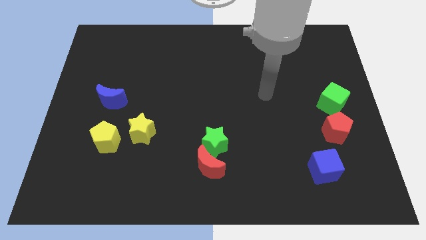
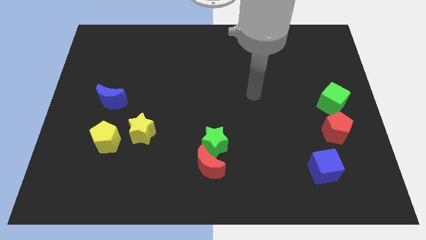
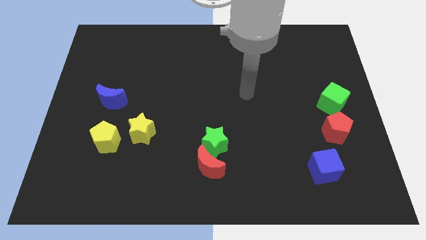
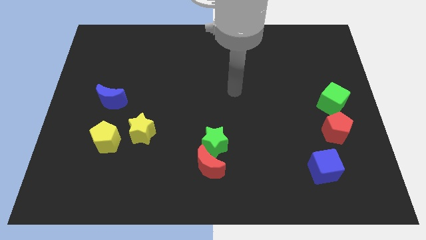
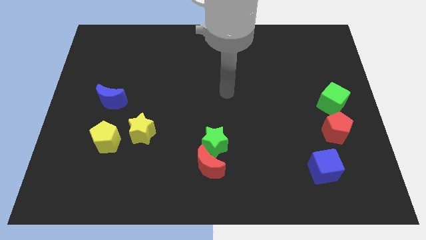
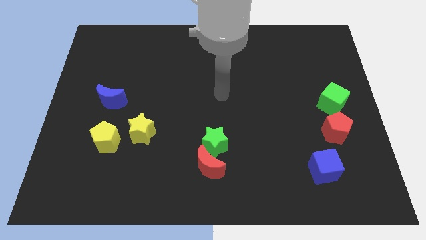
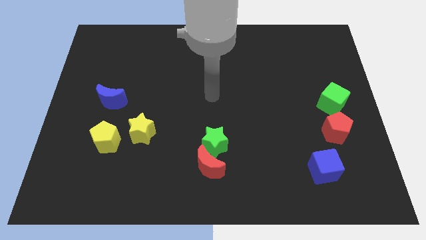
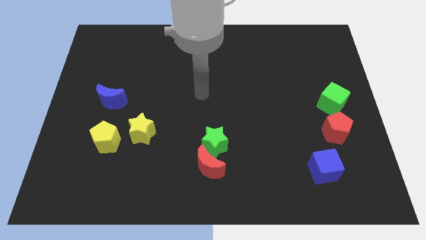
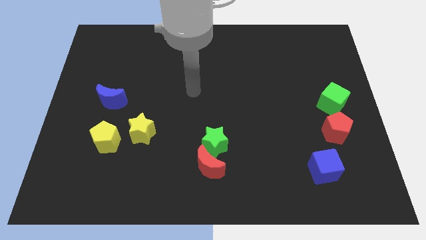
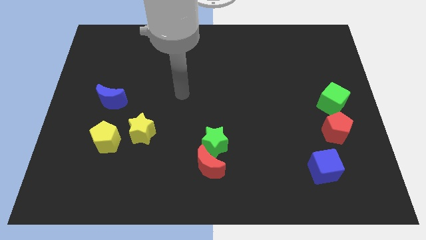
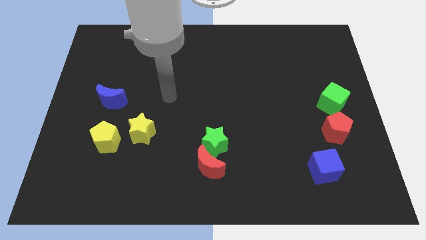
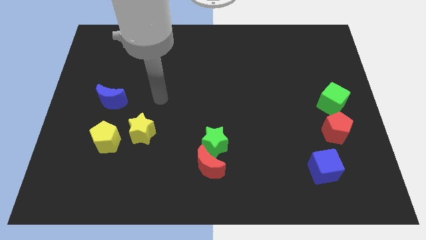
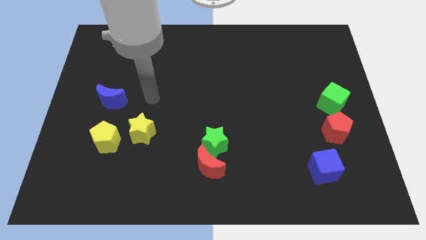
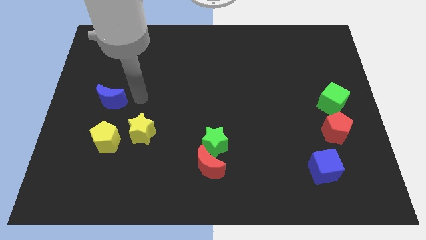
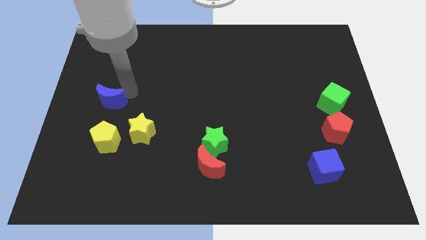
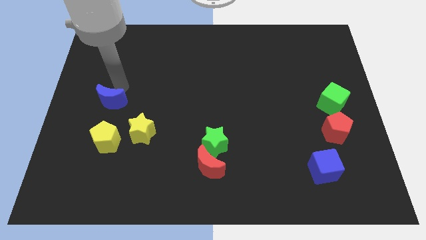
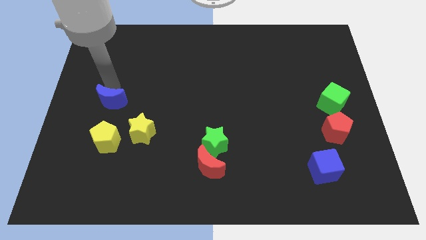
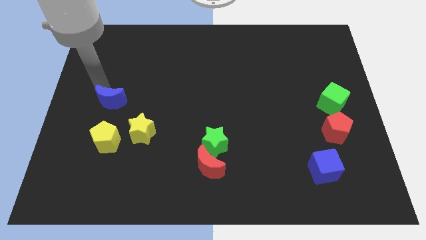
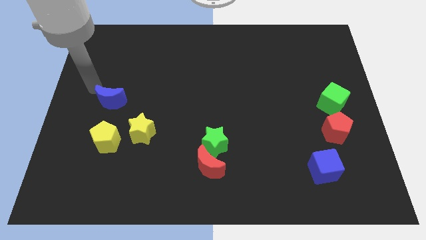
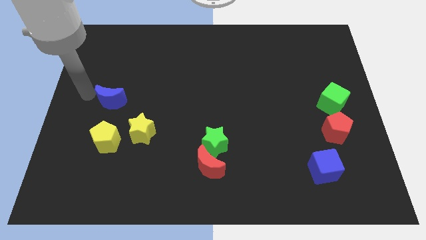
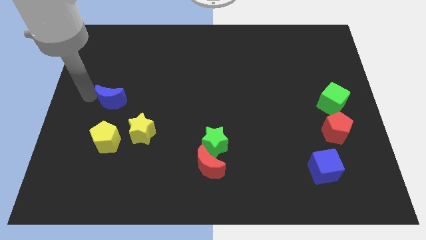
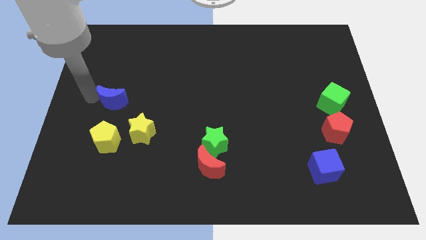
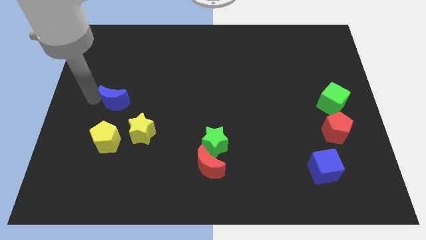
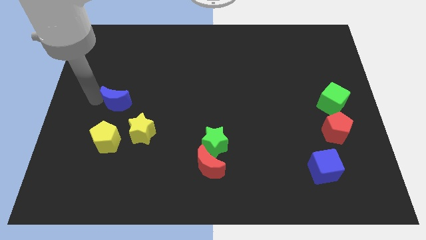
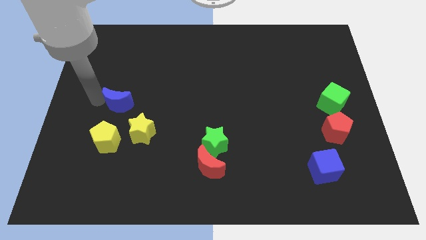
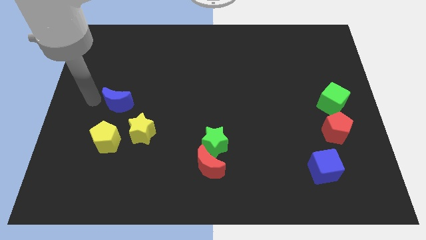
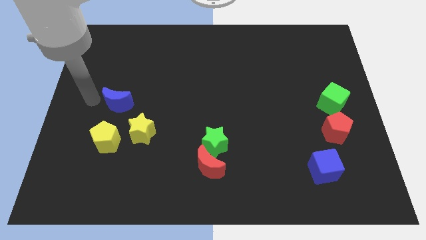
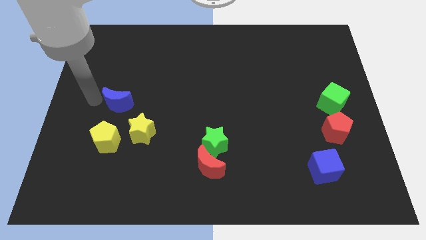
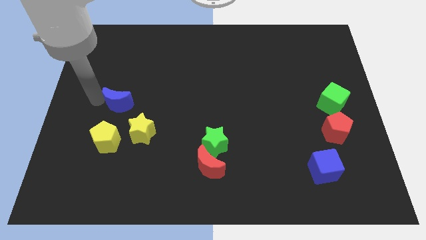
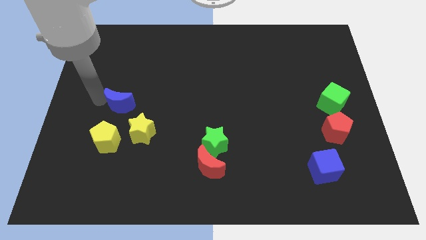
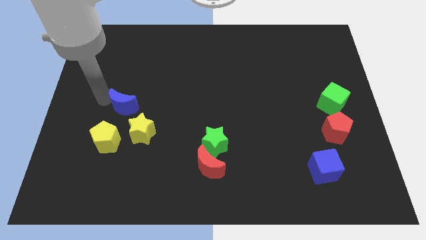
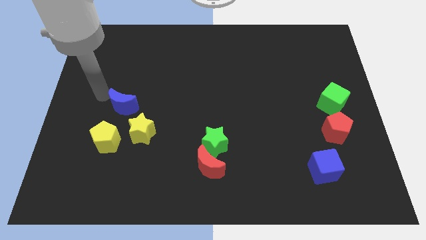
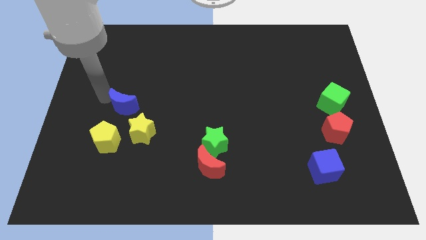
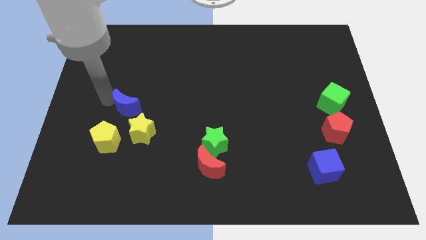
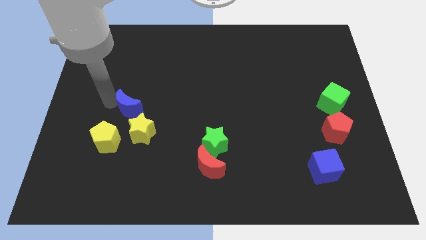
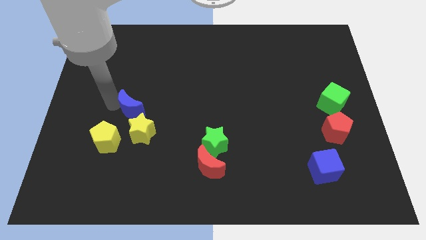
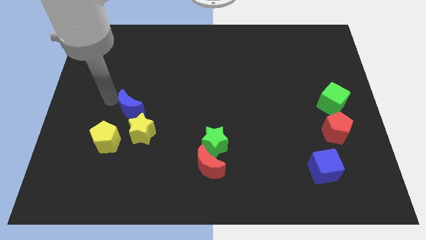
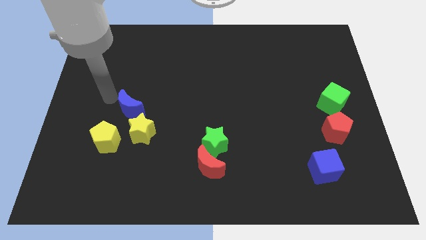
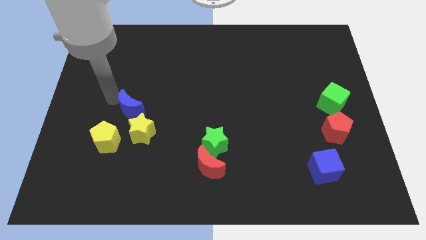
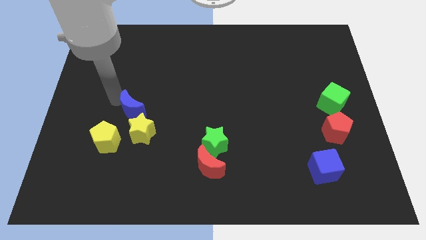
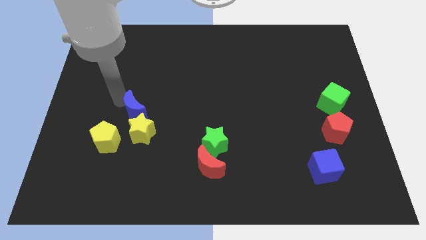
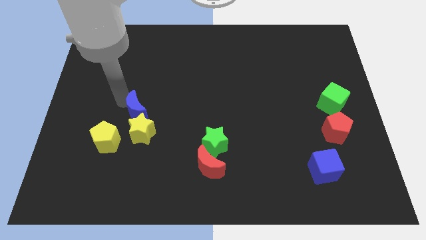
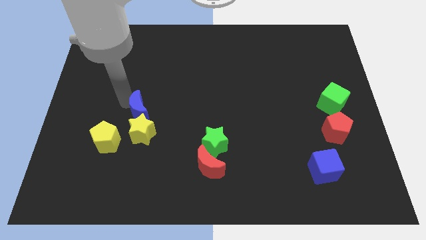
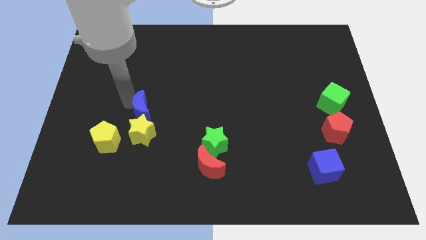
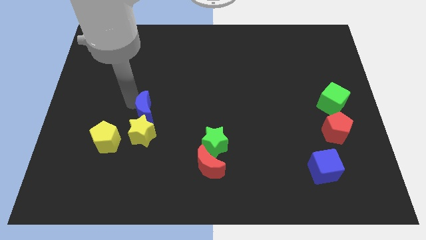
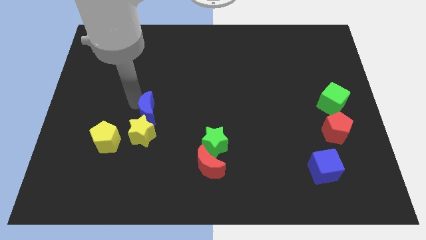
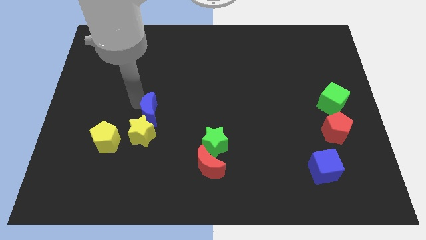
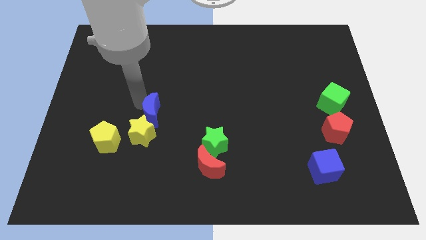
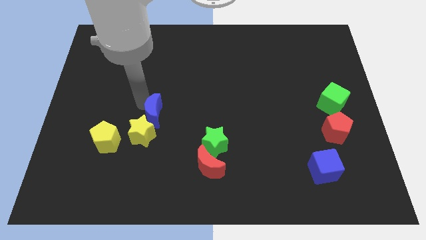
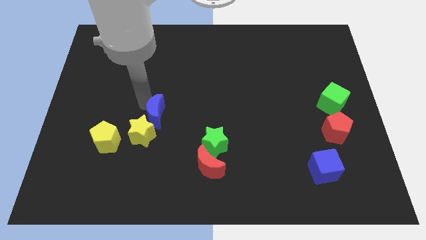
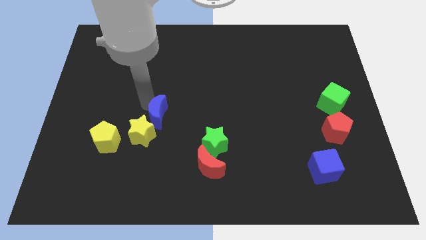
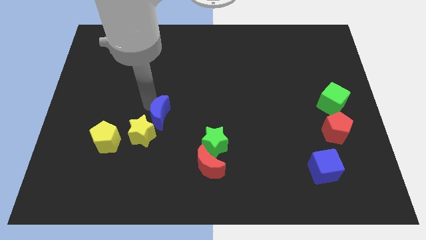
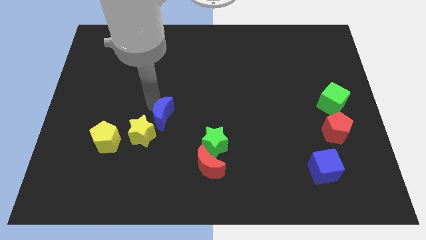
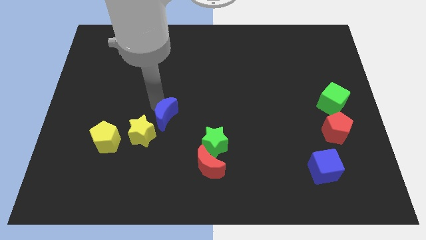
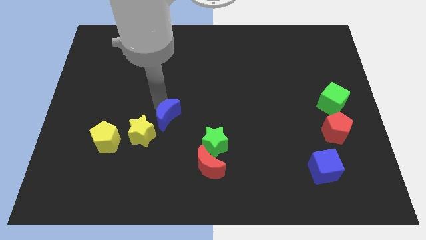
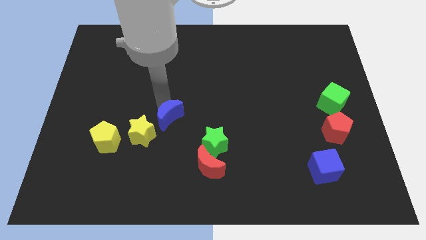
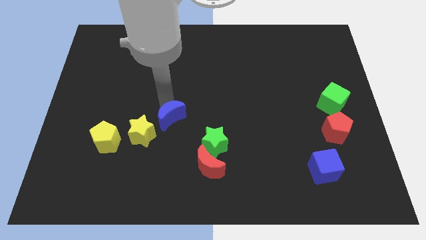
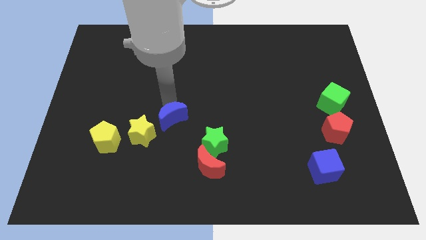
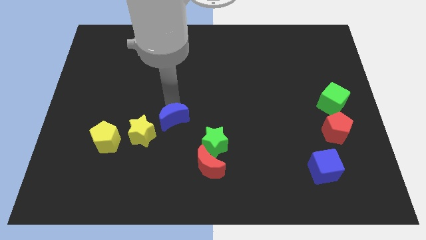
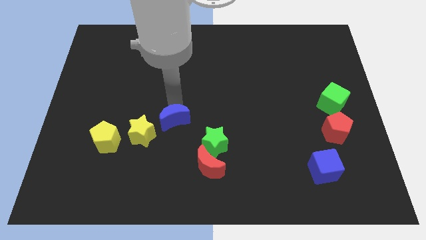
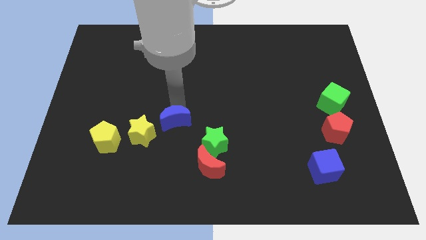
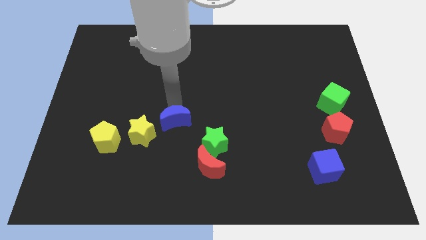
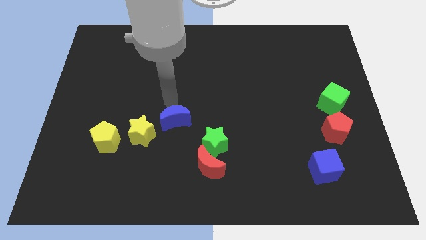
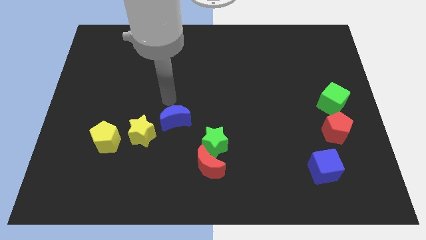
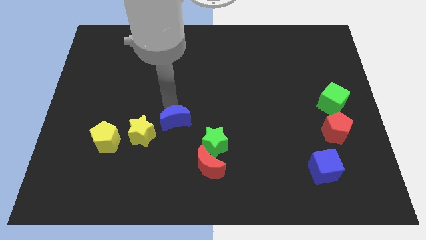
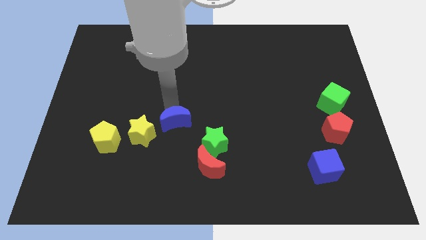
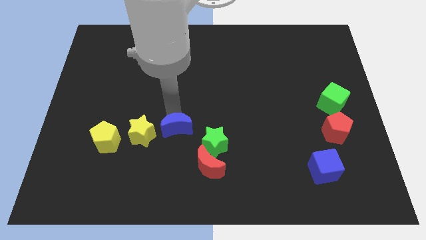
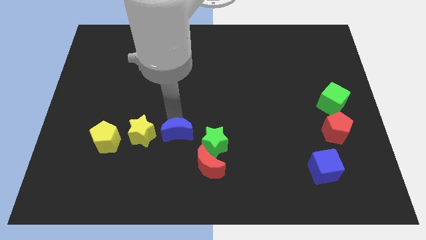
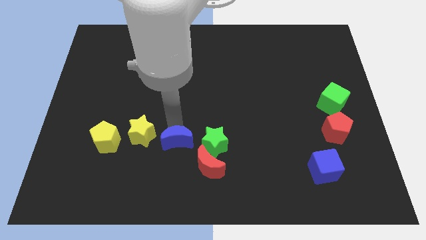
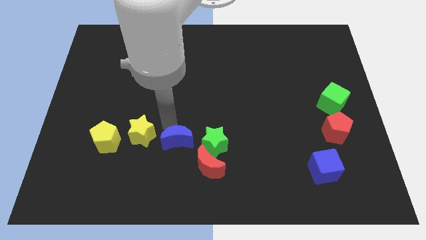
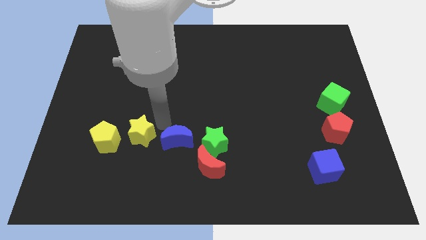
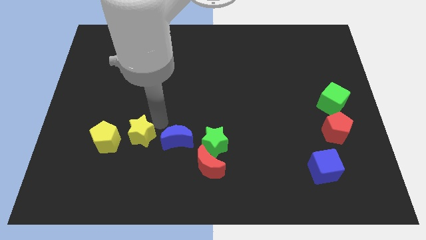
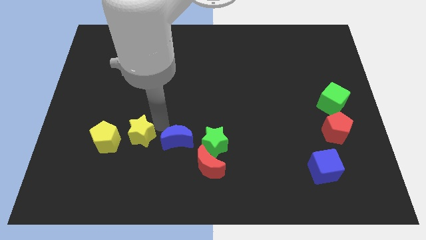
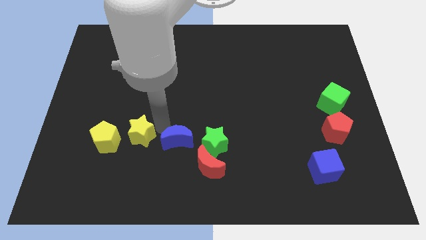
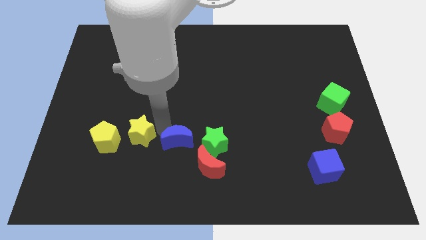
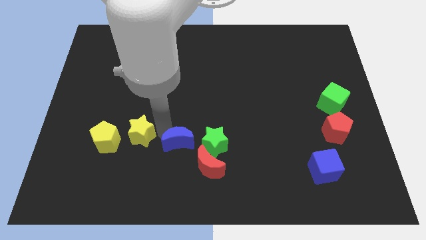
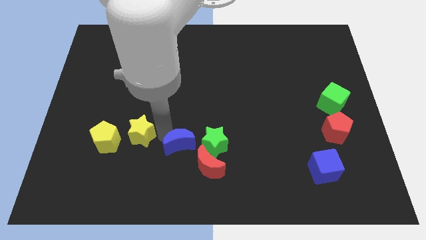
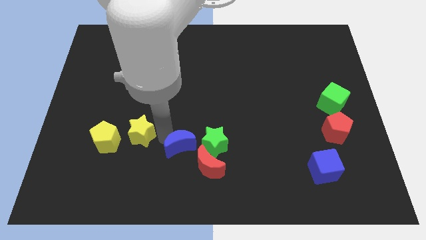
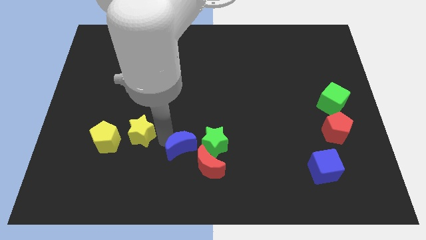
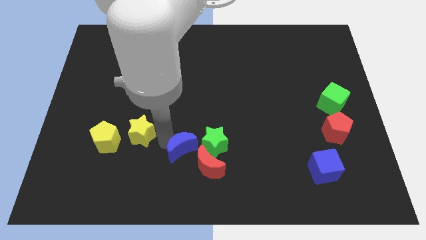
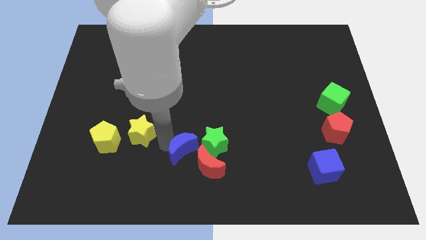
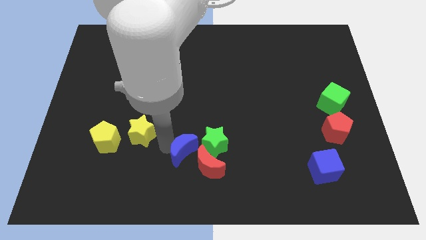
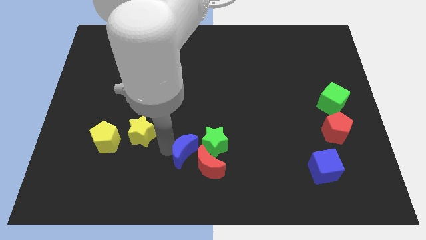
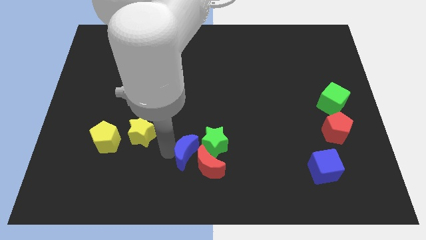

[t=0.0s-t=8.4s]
slide the blue moon next to the red moon
